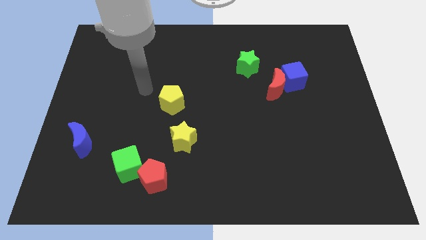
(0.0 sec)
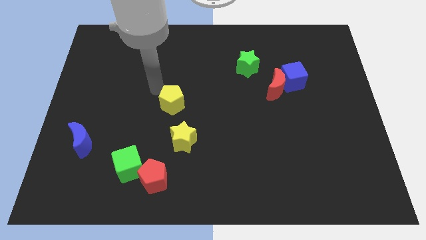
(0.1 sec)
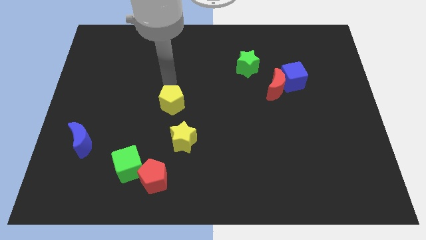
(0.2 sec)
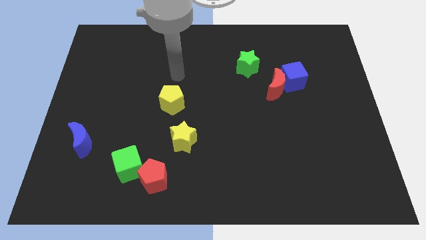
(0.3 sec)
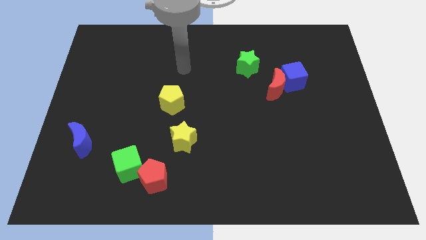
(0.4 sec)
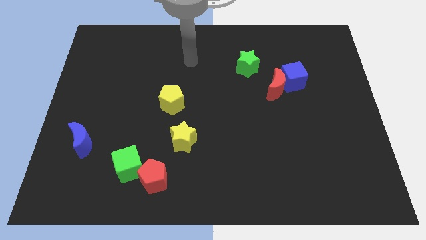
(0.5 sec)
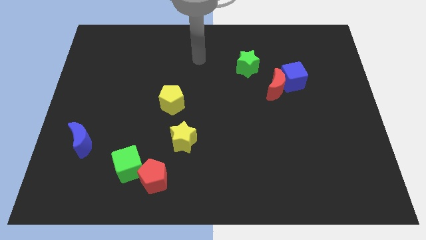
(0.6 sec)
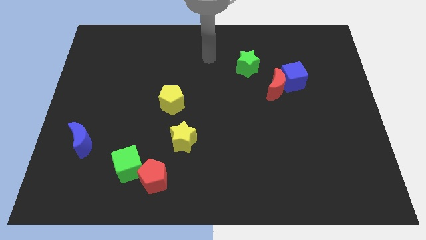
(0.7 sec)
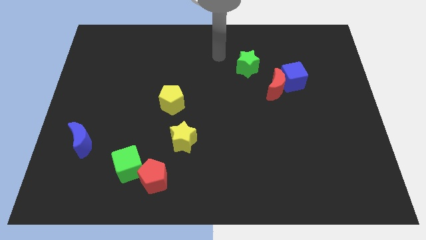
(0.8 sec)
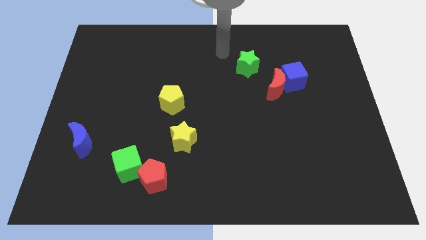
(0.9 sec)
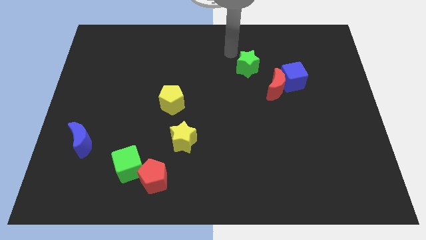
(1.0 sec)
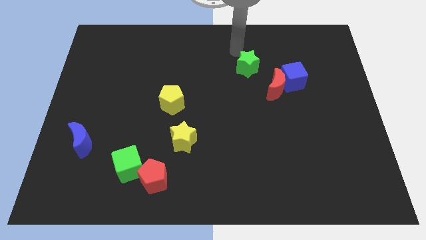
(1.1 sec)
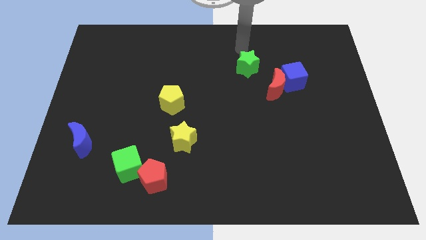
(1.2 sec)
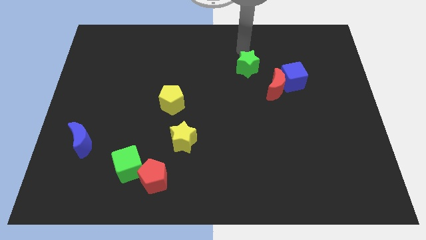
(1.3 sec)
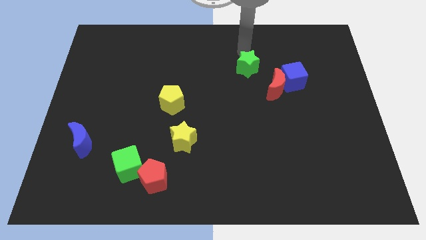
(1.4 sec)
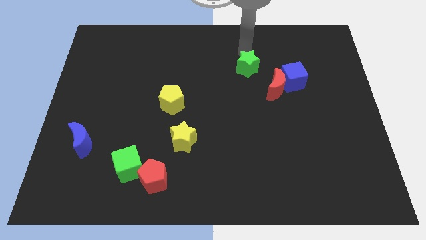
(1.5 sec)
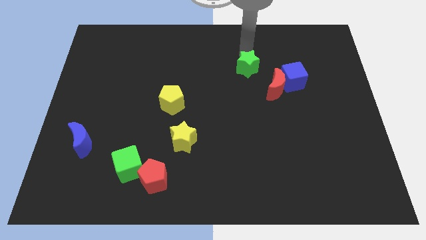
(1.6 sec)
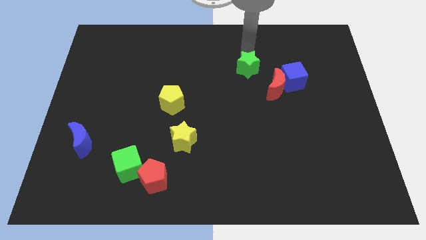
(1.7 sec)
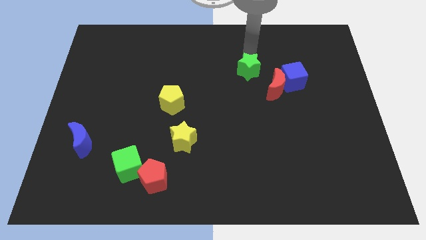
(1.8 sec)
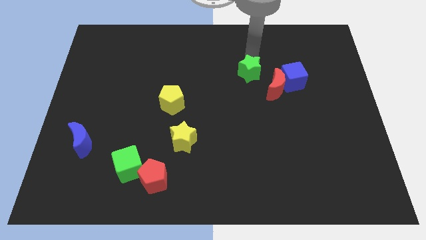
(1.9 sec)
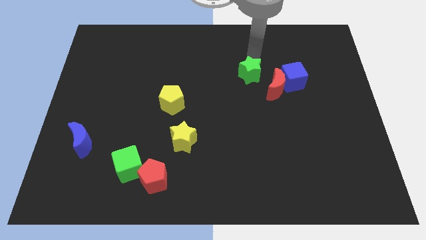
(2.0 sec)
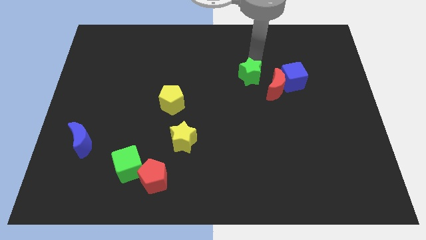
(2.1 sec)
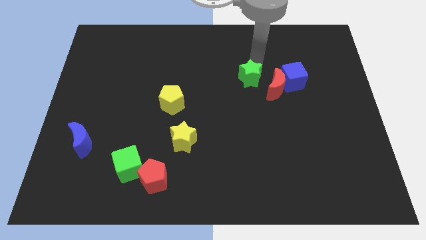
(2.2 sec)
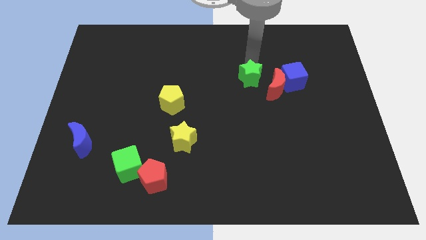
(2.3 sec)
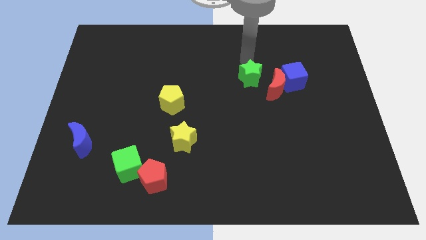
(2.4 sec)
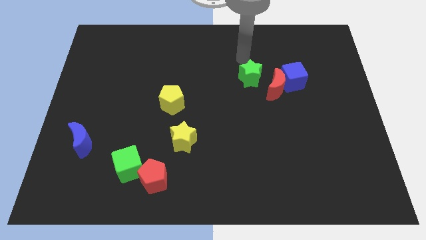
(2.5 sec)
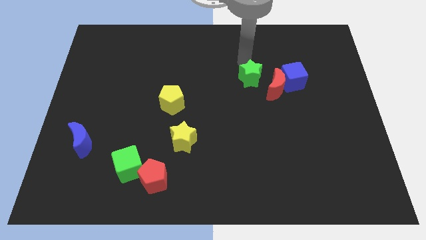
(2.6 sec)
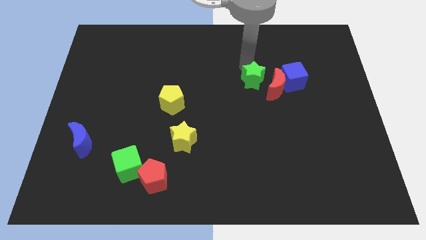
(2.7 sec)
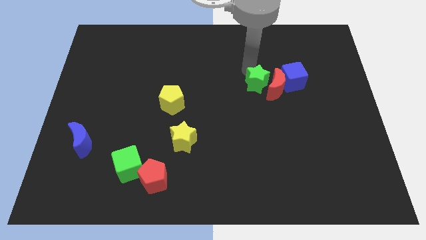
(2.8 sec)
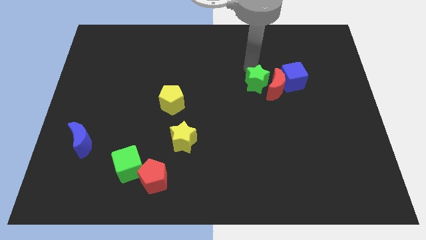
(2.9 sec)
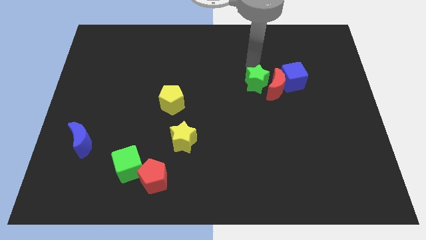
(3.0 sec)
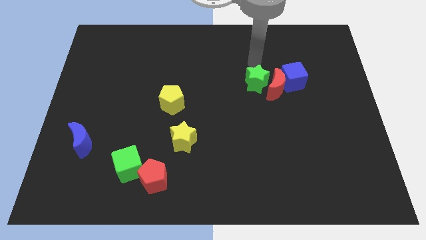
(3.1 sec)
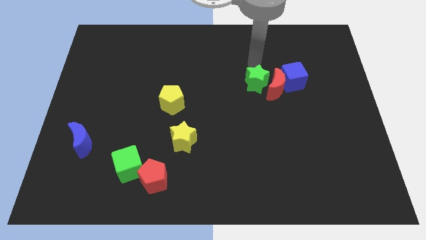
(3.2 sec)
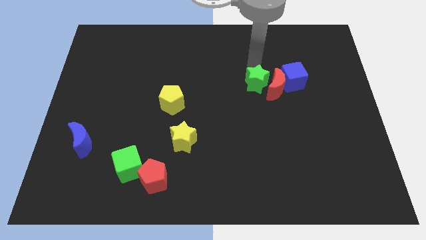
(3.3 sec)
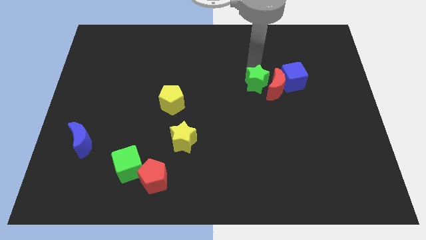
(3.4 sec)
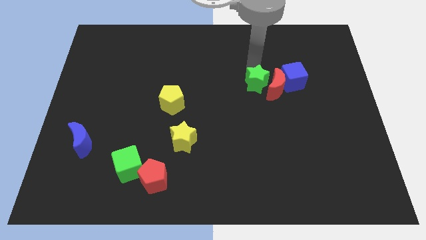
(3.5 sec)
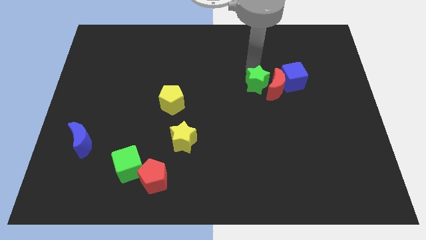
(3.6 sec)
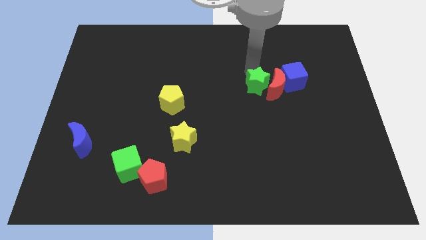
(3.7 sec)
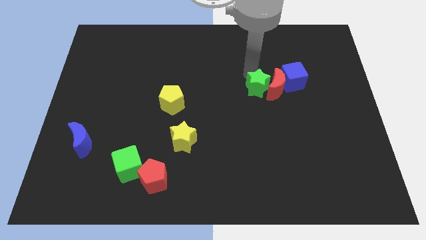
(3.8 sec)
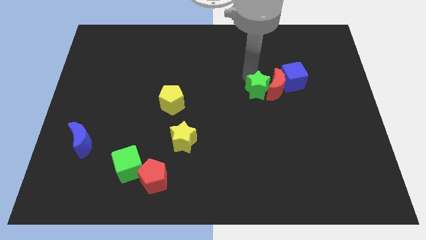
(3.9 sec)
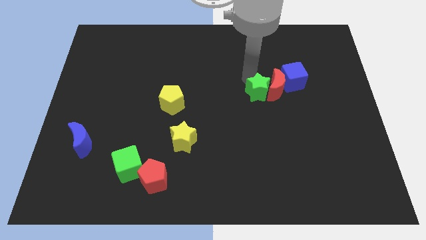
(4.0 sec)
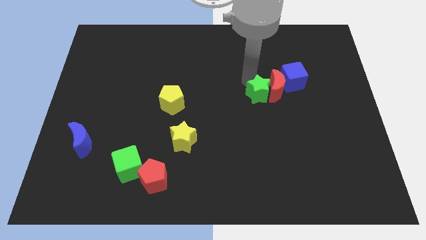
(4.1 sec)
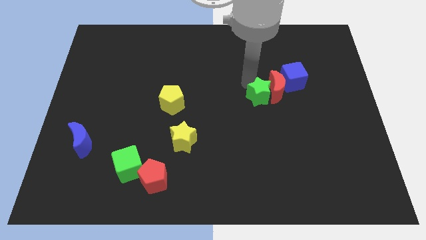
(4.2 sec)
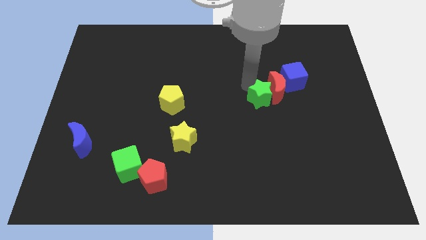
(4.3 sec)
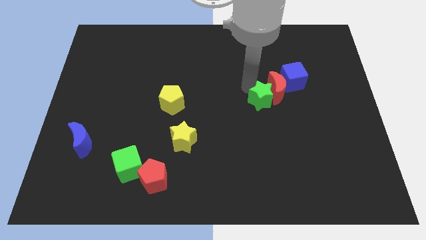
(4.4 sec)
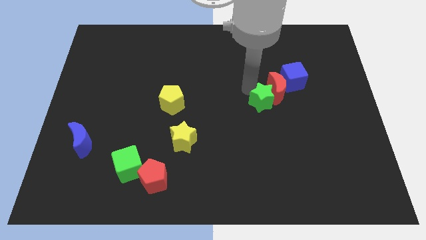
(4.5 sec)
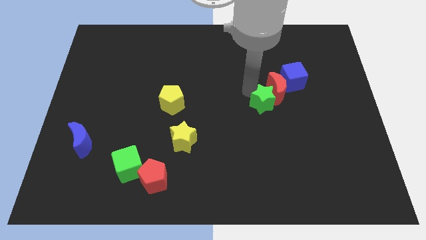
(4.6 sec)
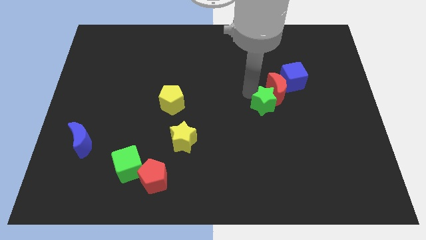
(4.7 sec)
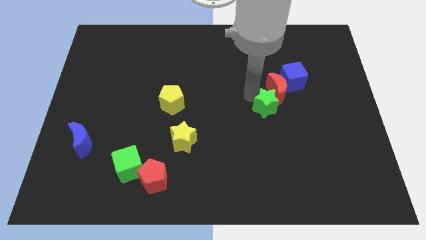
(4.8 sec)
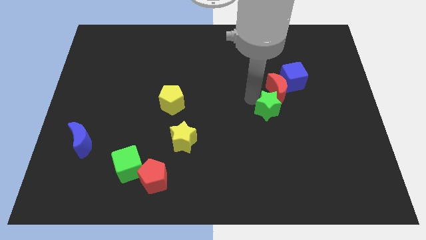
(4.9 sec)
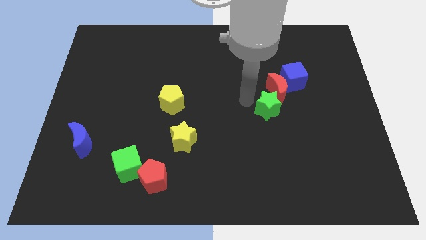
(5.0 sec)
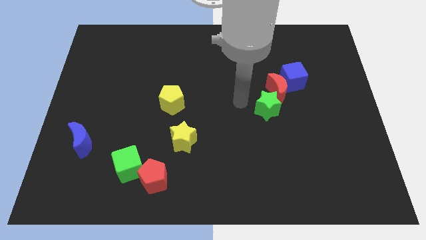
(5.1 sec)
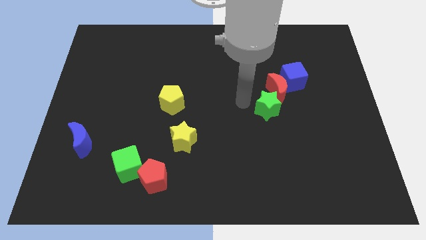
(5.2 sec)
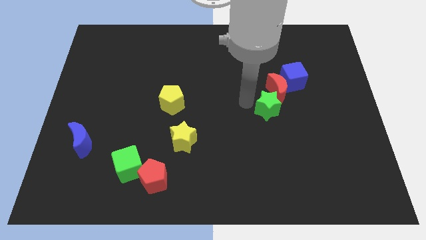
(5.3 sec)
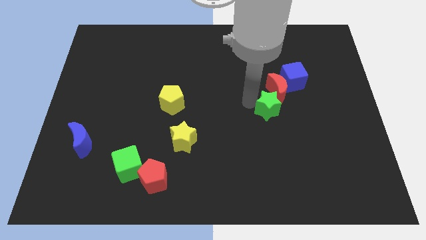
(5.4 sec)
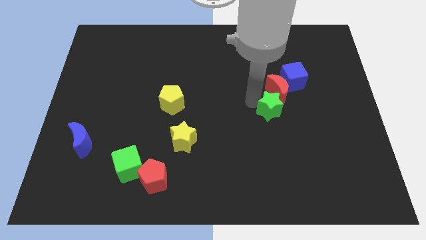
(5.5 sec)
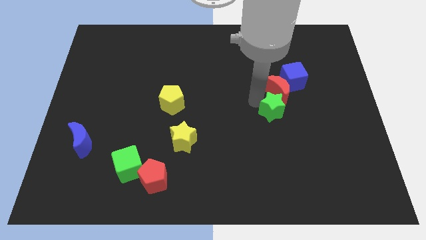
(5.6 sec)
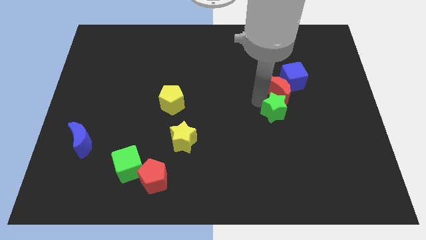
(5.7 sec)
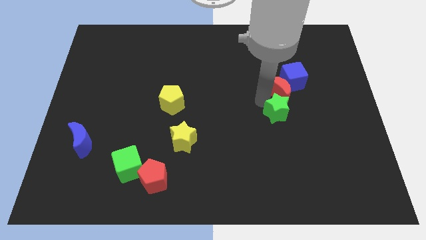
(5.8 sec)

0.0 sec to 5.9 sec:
slide the green star below the blue cube

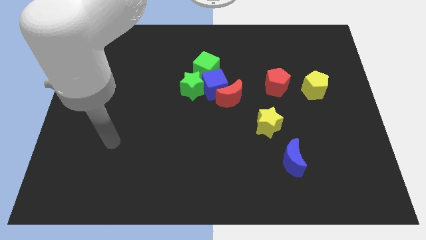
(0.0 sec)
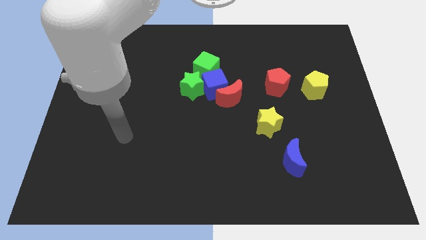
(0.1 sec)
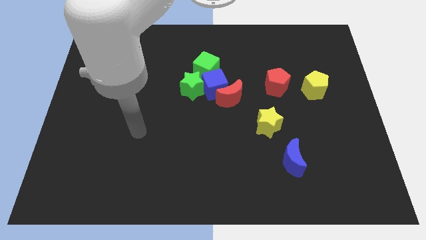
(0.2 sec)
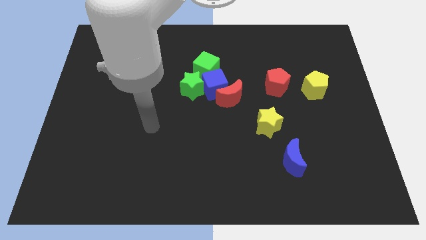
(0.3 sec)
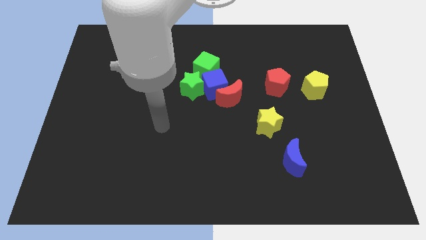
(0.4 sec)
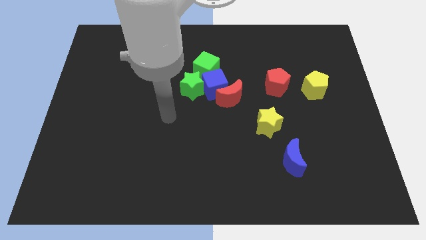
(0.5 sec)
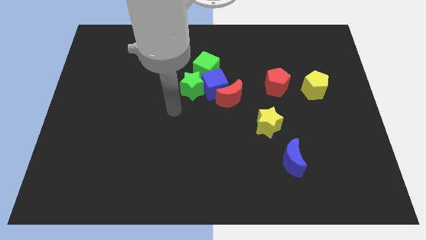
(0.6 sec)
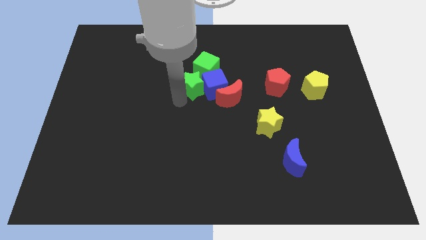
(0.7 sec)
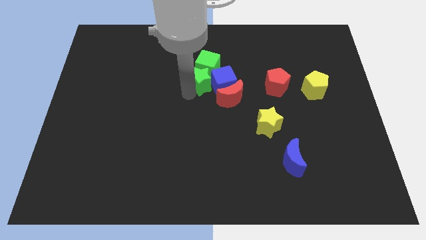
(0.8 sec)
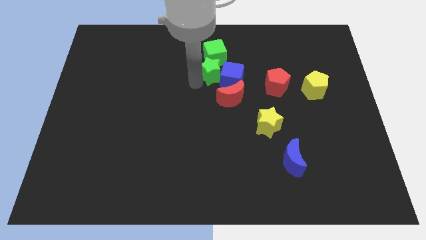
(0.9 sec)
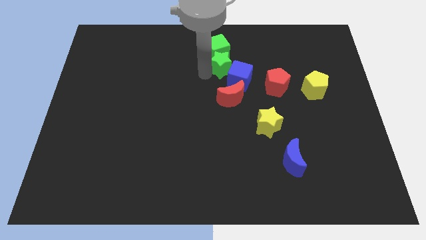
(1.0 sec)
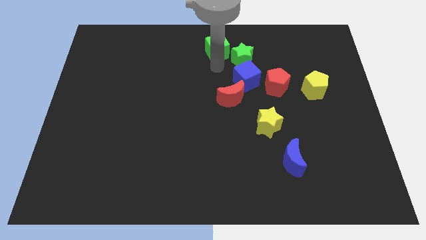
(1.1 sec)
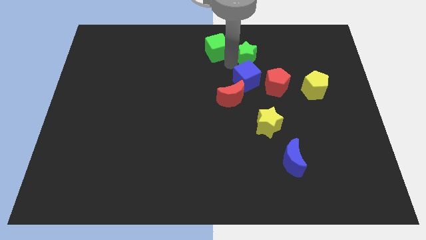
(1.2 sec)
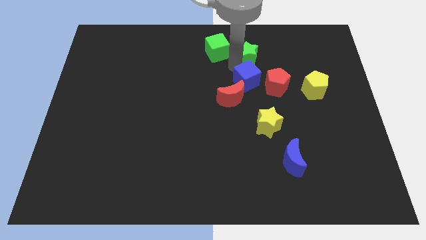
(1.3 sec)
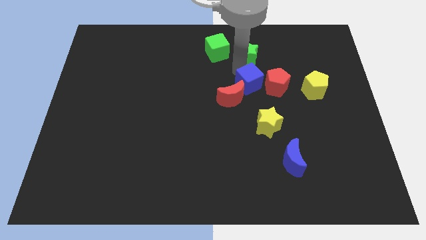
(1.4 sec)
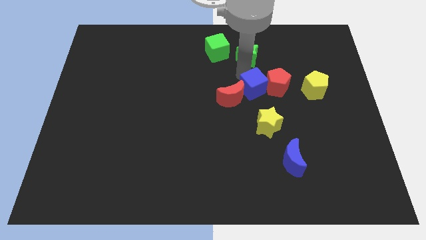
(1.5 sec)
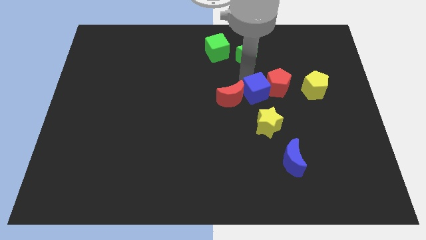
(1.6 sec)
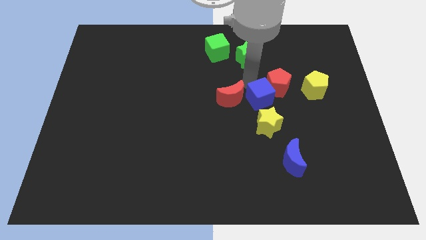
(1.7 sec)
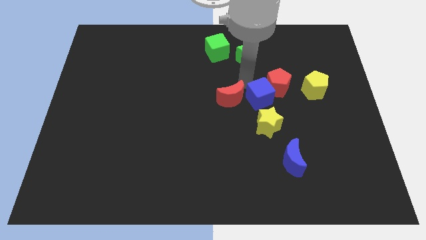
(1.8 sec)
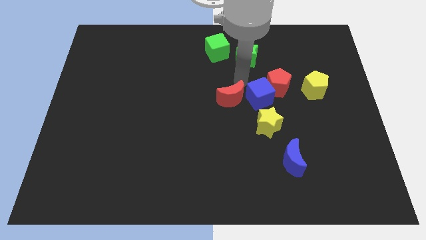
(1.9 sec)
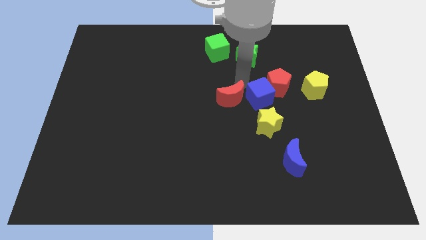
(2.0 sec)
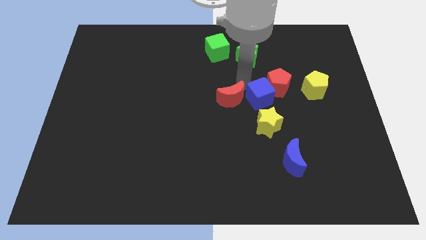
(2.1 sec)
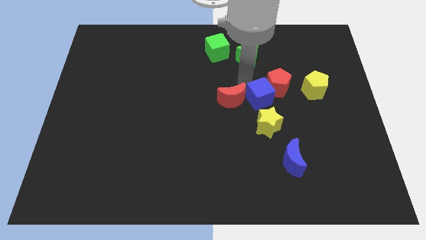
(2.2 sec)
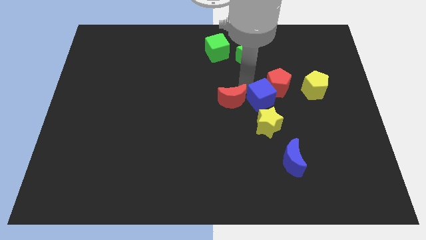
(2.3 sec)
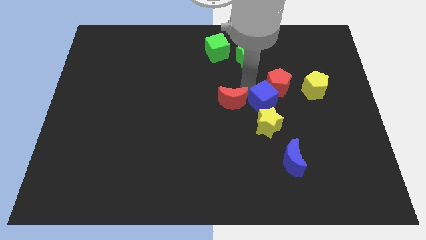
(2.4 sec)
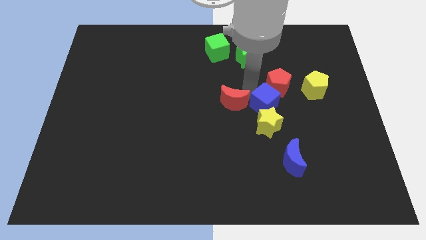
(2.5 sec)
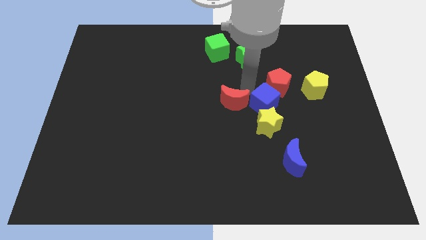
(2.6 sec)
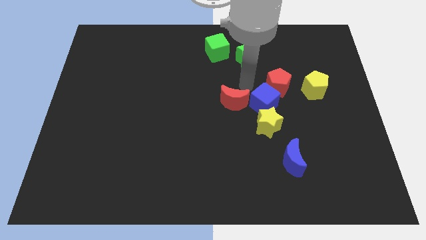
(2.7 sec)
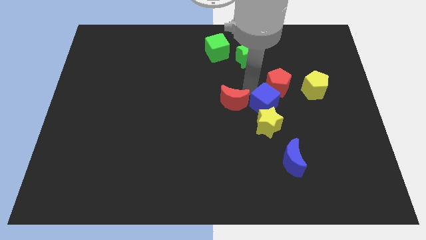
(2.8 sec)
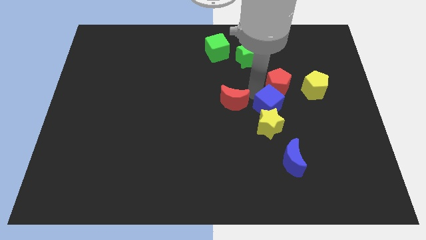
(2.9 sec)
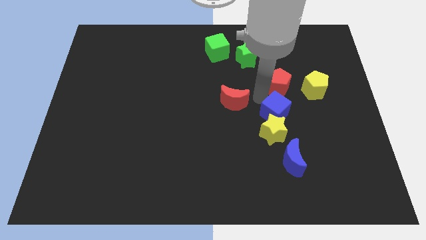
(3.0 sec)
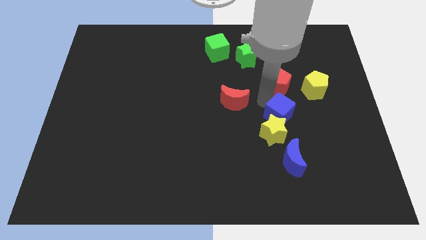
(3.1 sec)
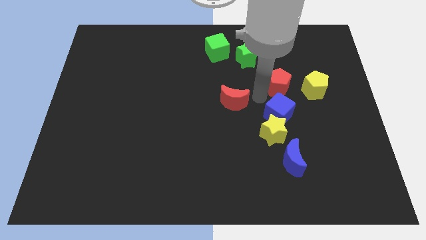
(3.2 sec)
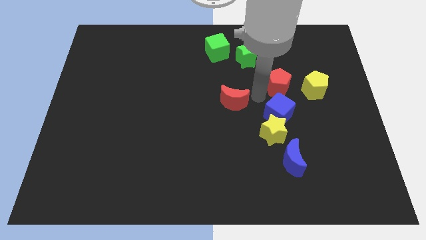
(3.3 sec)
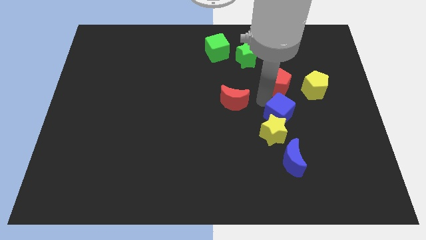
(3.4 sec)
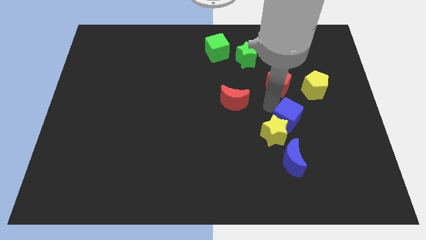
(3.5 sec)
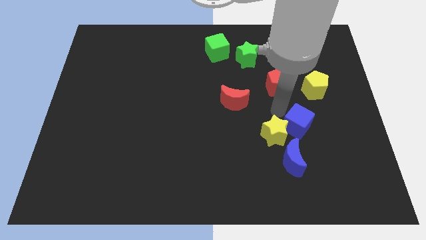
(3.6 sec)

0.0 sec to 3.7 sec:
move the blue cube diagonally up and to the right of the blue moon
